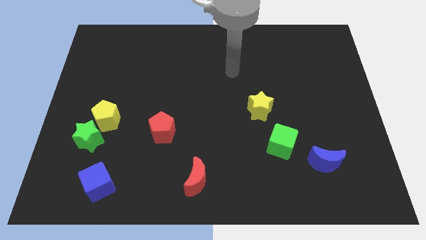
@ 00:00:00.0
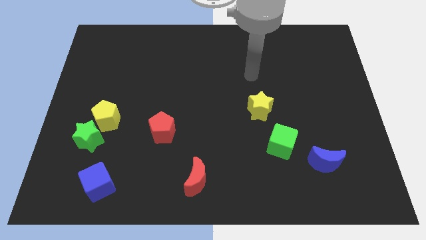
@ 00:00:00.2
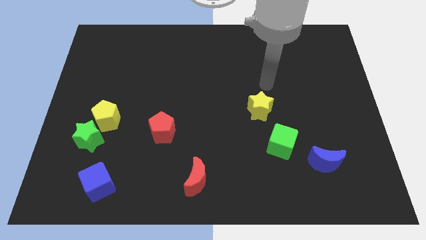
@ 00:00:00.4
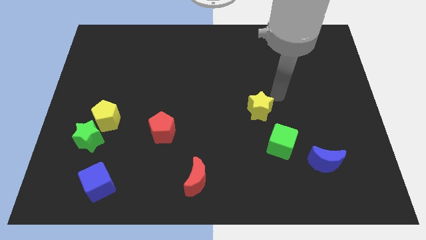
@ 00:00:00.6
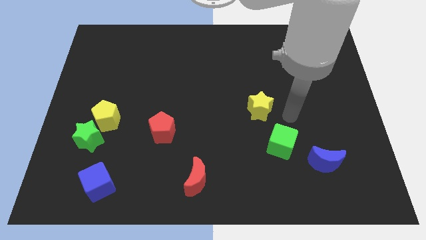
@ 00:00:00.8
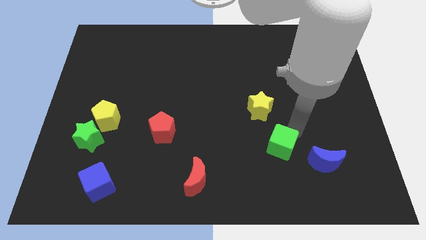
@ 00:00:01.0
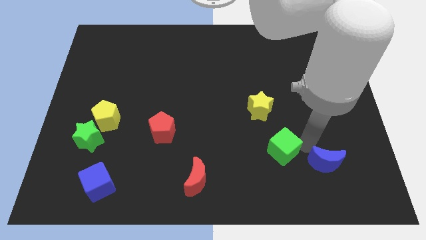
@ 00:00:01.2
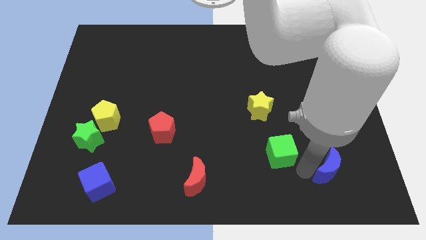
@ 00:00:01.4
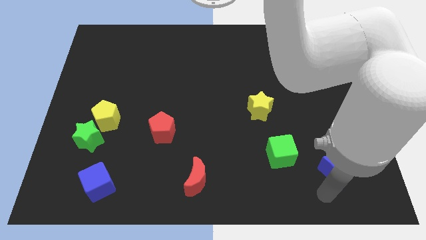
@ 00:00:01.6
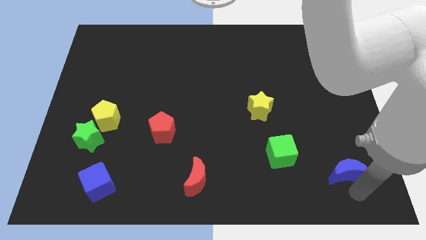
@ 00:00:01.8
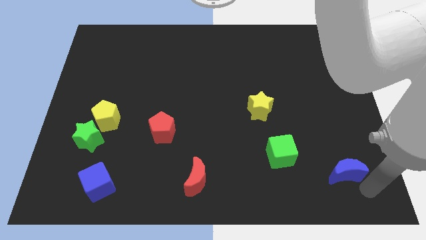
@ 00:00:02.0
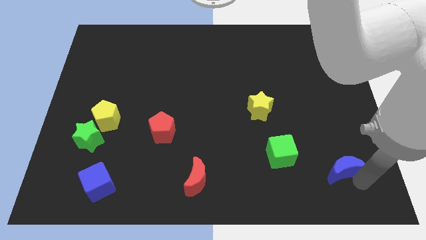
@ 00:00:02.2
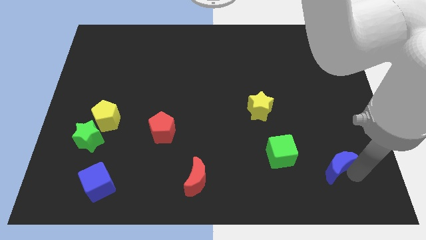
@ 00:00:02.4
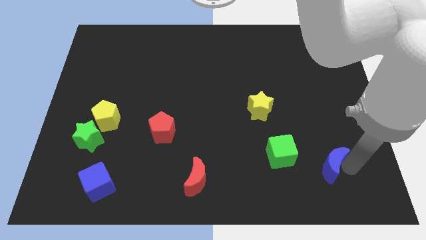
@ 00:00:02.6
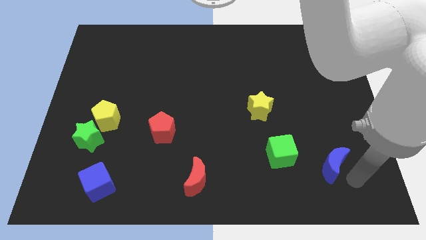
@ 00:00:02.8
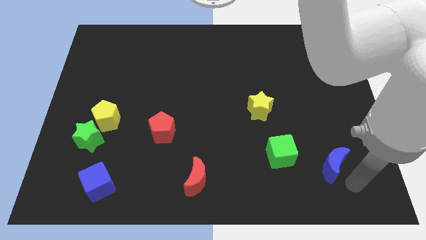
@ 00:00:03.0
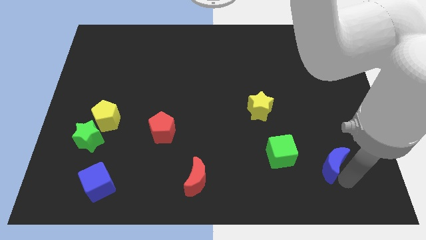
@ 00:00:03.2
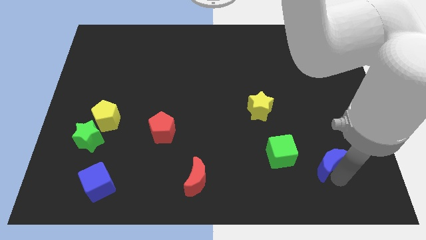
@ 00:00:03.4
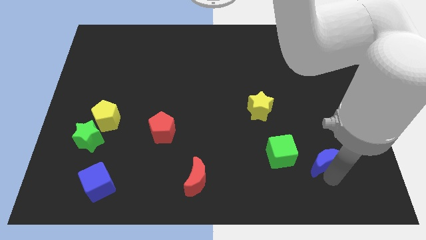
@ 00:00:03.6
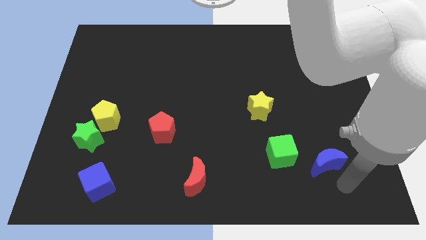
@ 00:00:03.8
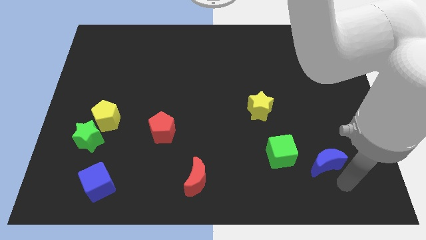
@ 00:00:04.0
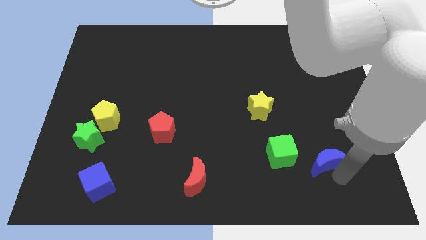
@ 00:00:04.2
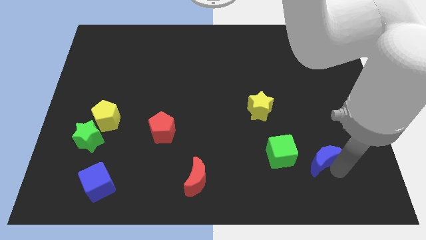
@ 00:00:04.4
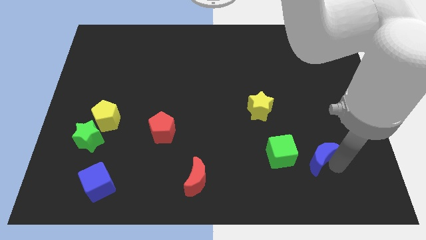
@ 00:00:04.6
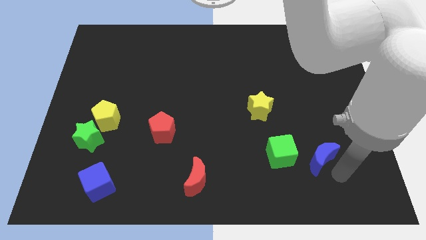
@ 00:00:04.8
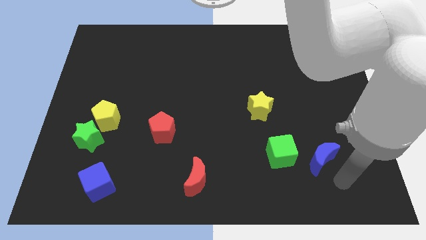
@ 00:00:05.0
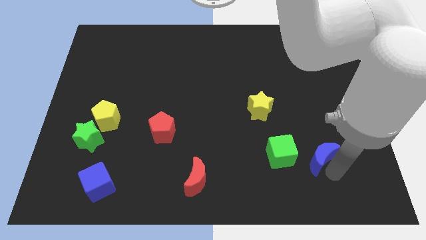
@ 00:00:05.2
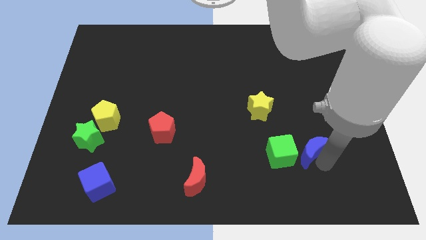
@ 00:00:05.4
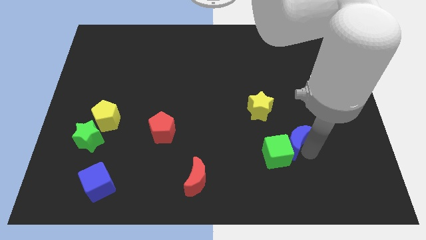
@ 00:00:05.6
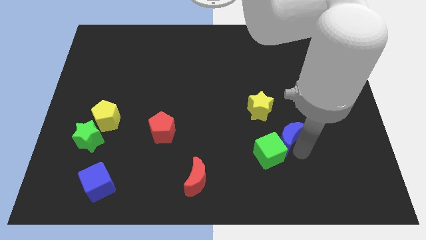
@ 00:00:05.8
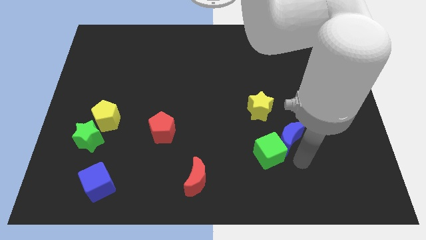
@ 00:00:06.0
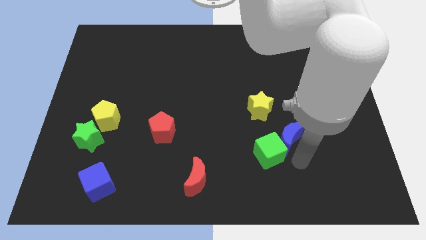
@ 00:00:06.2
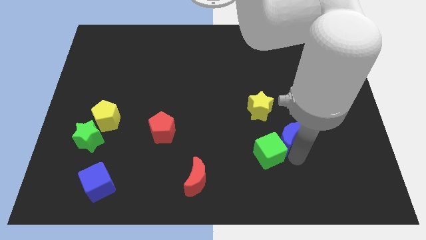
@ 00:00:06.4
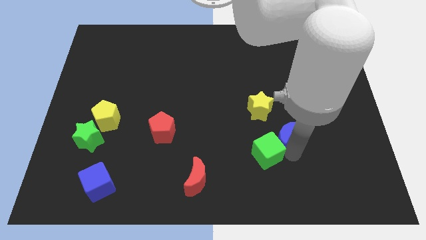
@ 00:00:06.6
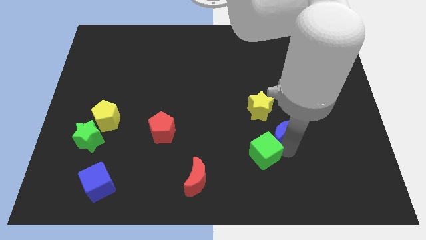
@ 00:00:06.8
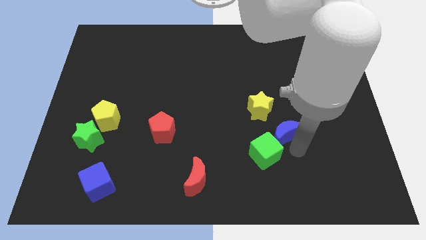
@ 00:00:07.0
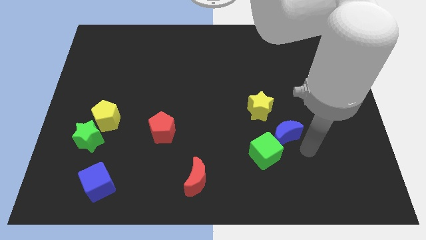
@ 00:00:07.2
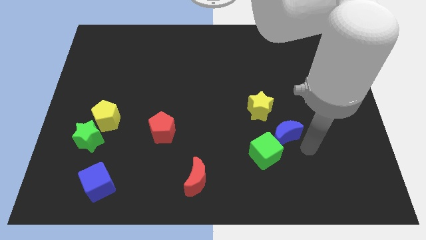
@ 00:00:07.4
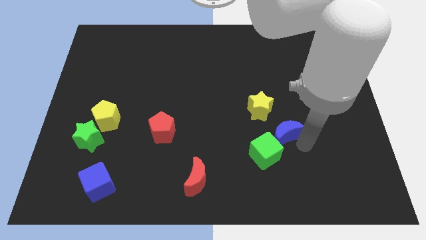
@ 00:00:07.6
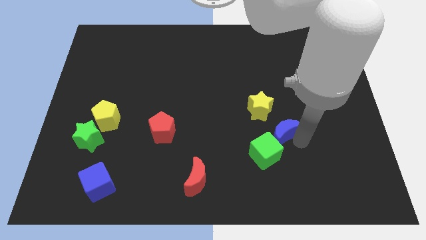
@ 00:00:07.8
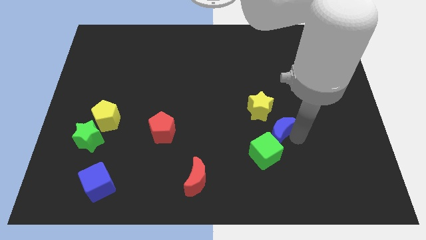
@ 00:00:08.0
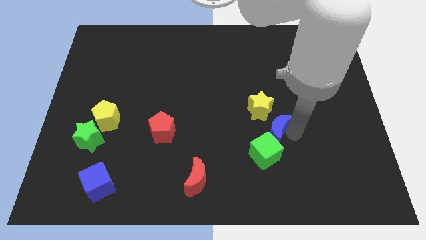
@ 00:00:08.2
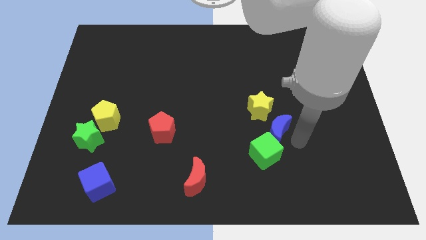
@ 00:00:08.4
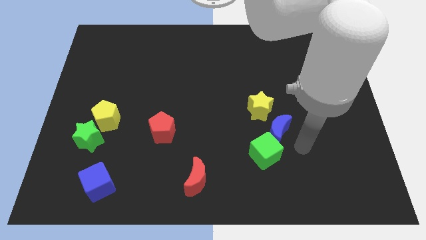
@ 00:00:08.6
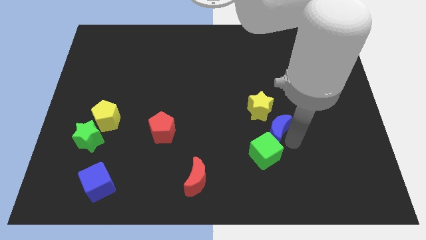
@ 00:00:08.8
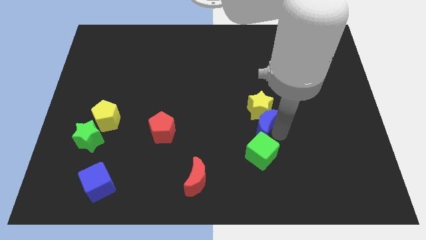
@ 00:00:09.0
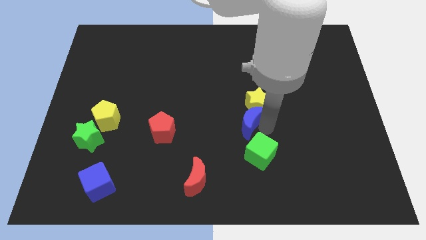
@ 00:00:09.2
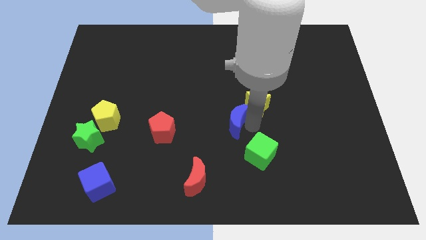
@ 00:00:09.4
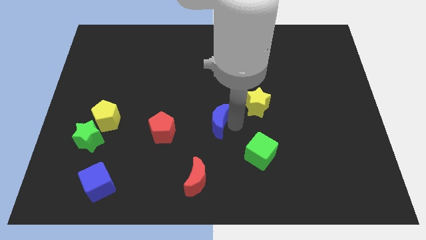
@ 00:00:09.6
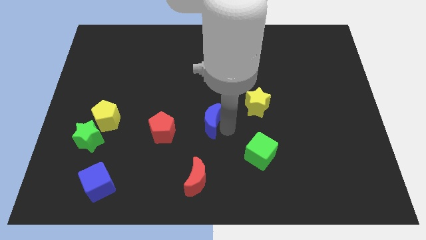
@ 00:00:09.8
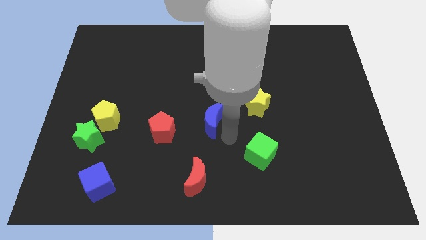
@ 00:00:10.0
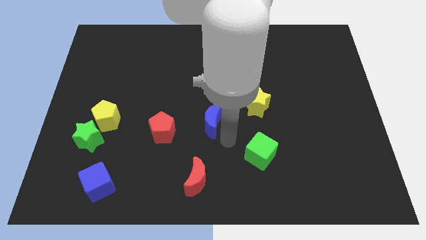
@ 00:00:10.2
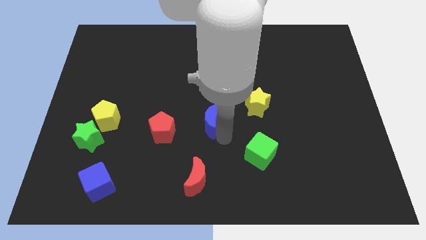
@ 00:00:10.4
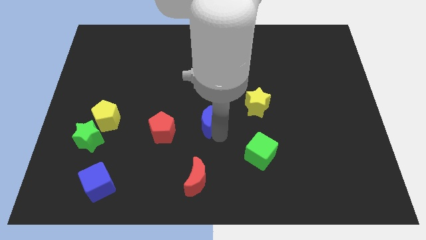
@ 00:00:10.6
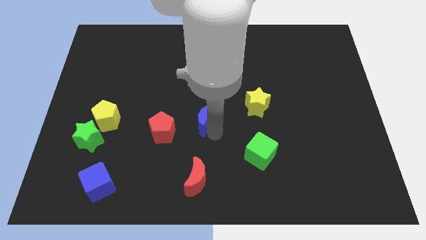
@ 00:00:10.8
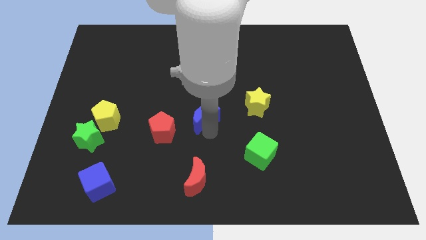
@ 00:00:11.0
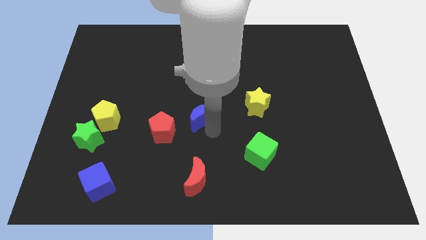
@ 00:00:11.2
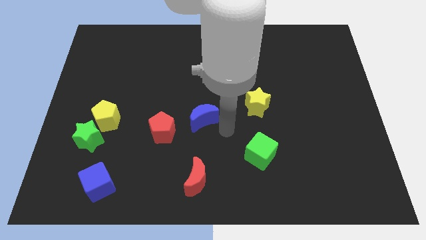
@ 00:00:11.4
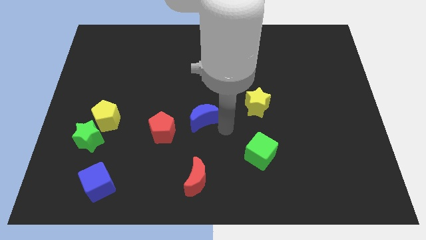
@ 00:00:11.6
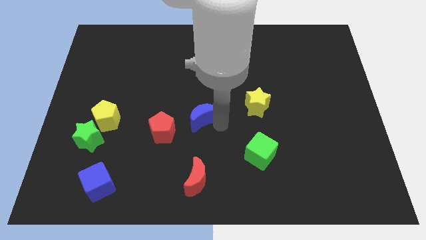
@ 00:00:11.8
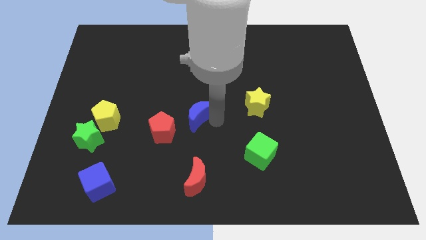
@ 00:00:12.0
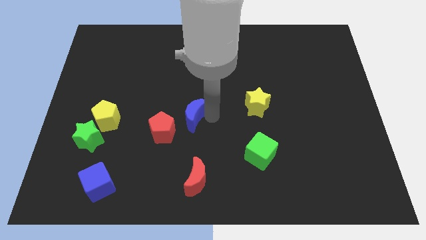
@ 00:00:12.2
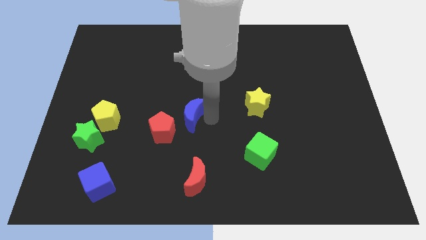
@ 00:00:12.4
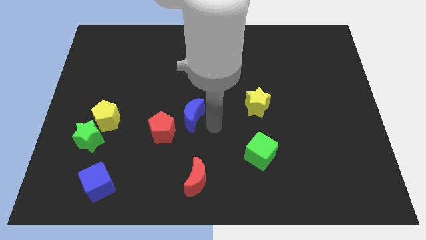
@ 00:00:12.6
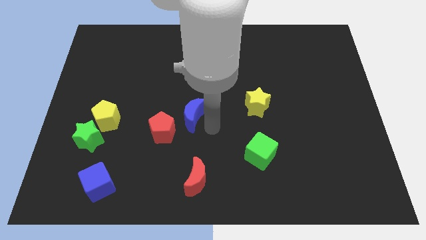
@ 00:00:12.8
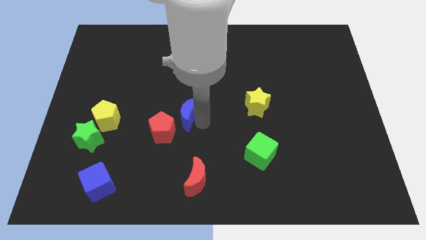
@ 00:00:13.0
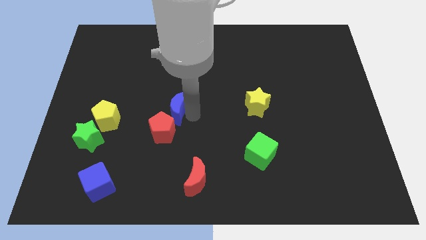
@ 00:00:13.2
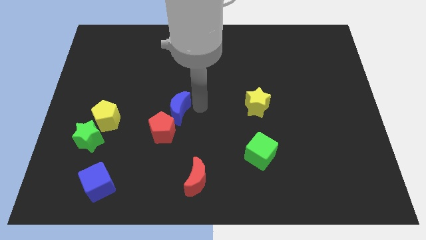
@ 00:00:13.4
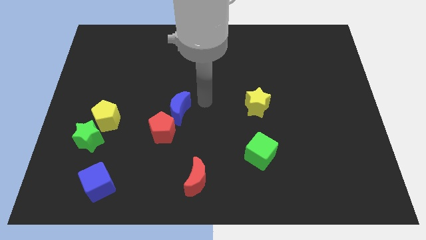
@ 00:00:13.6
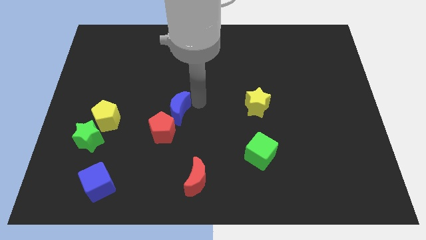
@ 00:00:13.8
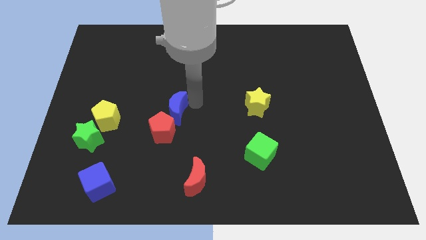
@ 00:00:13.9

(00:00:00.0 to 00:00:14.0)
move the blue moon to the right side of the yellow pentagon

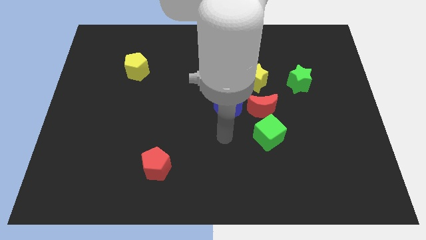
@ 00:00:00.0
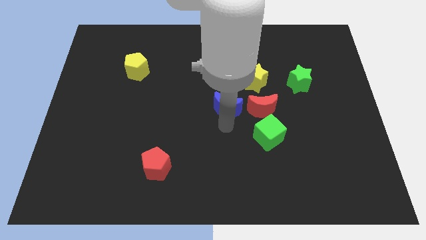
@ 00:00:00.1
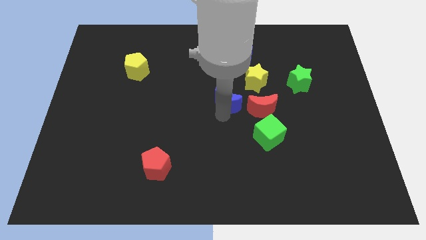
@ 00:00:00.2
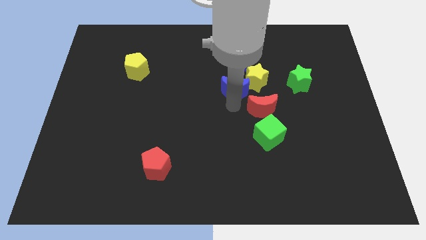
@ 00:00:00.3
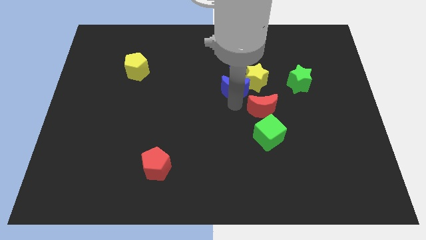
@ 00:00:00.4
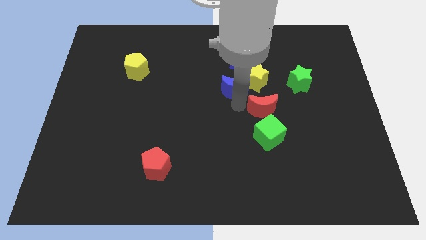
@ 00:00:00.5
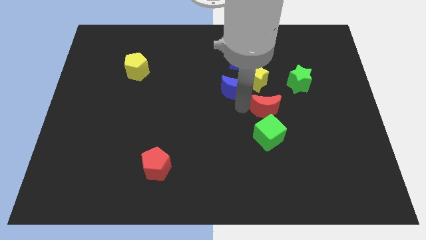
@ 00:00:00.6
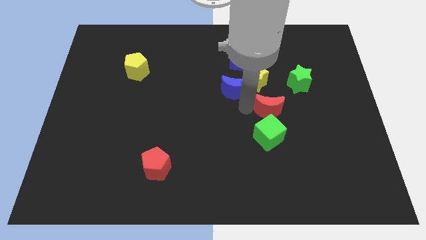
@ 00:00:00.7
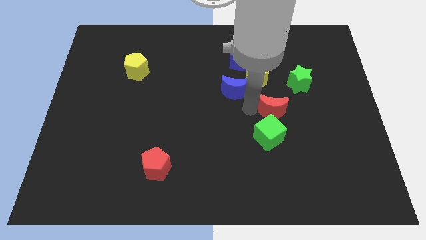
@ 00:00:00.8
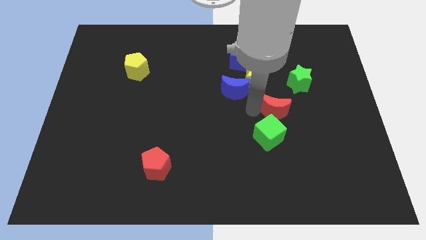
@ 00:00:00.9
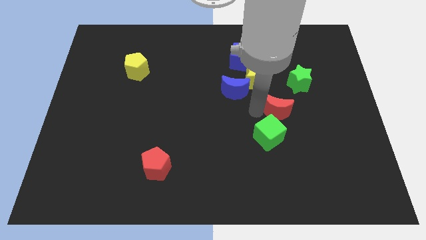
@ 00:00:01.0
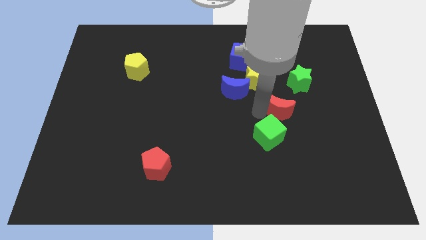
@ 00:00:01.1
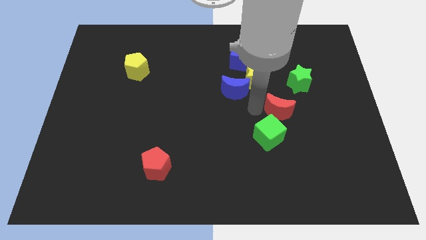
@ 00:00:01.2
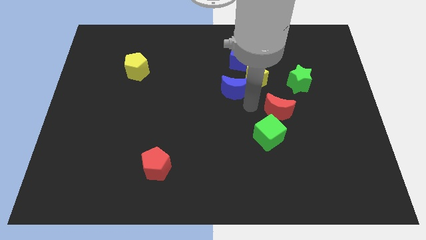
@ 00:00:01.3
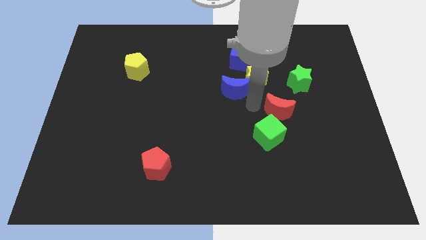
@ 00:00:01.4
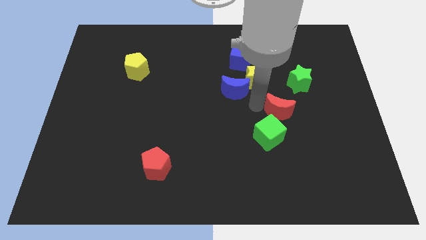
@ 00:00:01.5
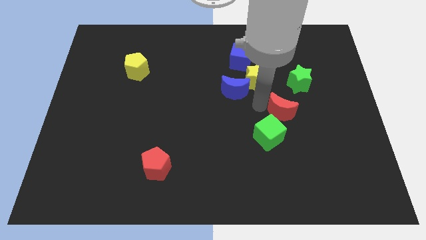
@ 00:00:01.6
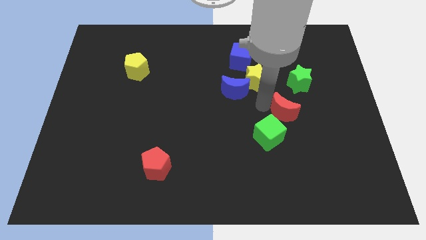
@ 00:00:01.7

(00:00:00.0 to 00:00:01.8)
put the red moon to the bottom of the green star
